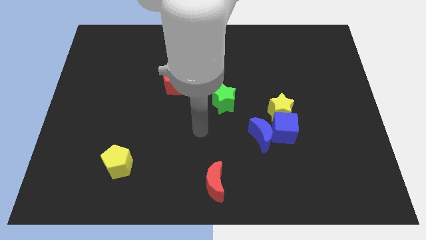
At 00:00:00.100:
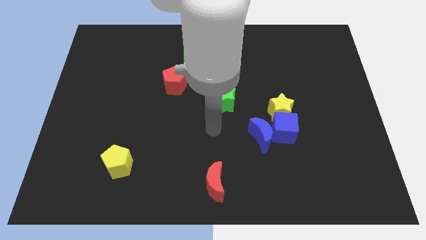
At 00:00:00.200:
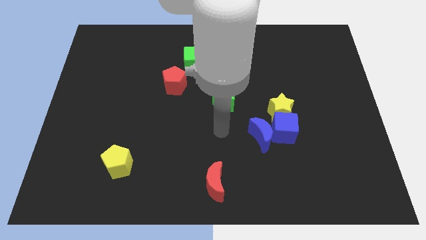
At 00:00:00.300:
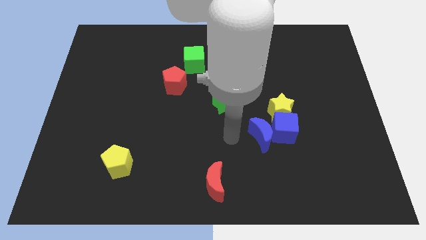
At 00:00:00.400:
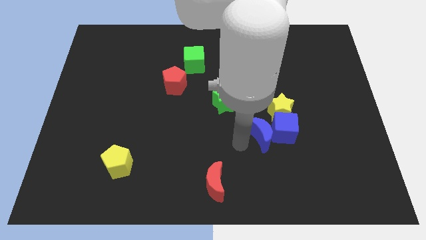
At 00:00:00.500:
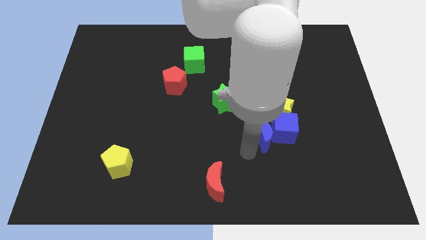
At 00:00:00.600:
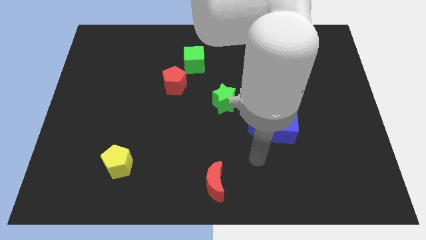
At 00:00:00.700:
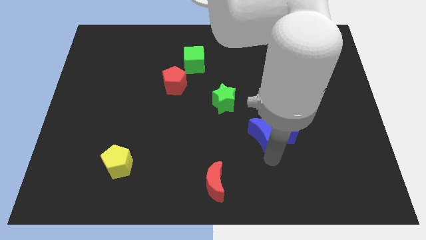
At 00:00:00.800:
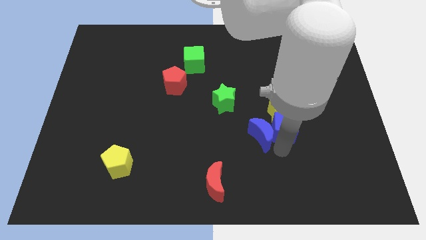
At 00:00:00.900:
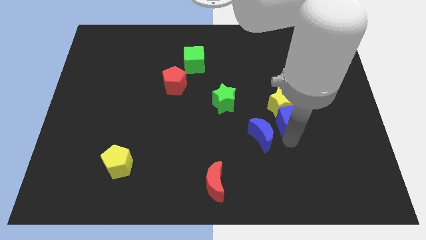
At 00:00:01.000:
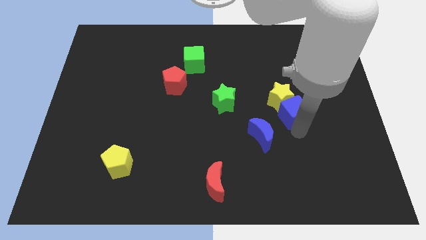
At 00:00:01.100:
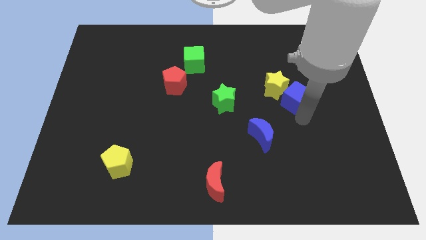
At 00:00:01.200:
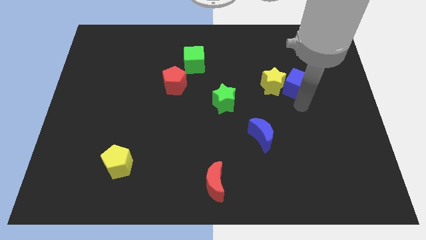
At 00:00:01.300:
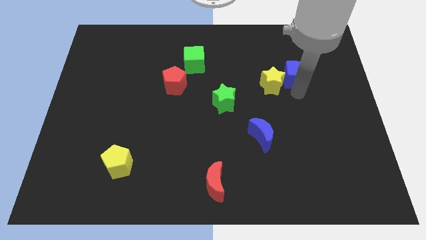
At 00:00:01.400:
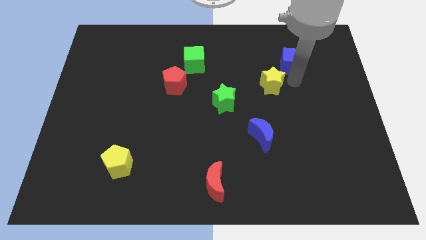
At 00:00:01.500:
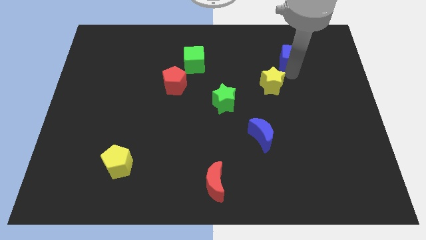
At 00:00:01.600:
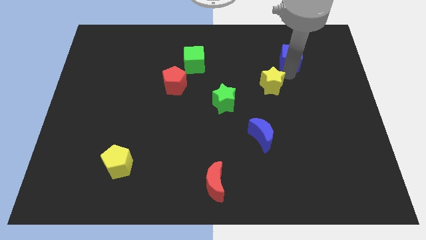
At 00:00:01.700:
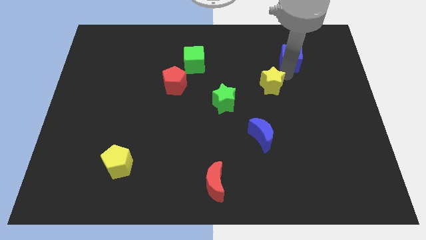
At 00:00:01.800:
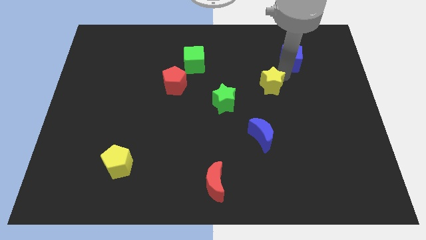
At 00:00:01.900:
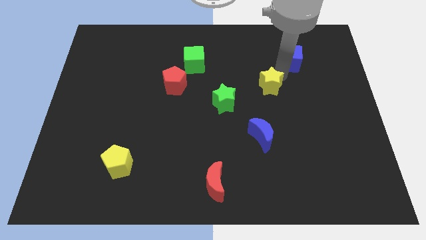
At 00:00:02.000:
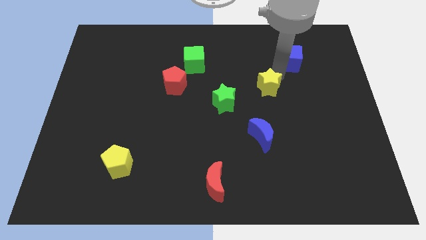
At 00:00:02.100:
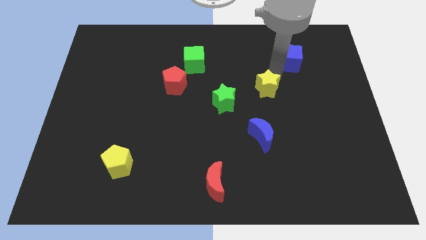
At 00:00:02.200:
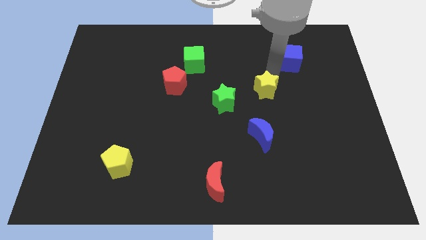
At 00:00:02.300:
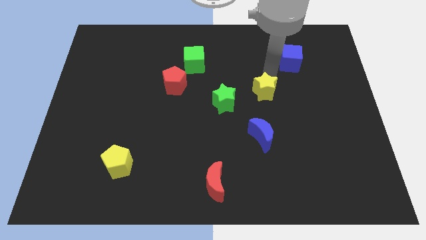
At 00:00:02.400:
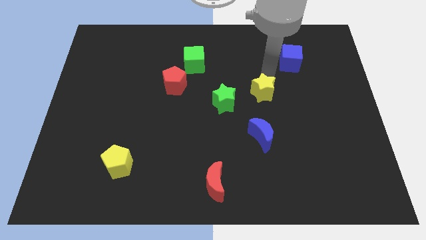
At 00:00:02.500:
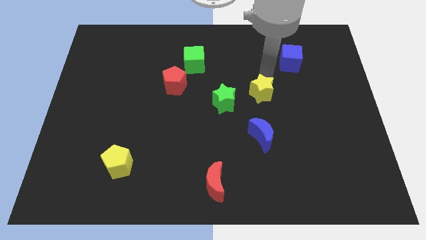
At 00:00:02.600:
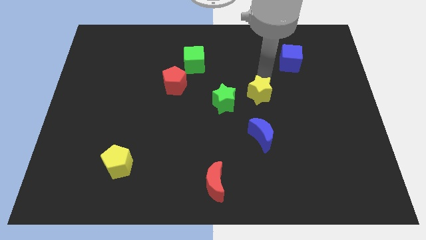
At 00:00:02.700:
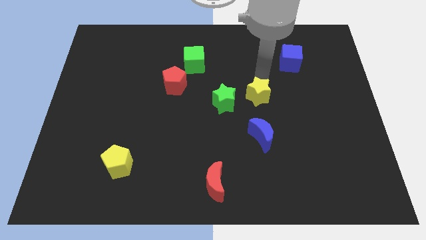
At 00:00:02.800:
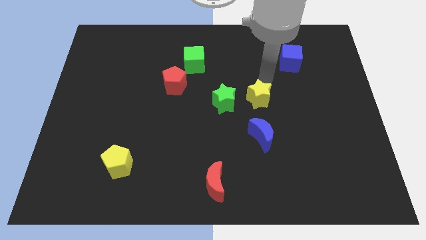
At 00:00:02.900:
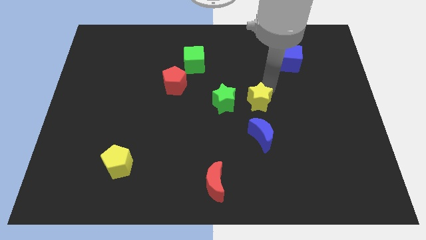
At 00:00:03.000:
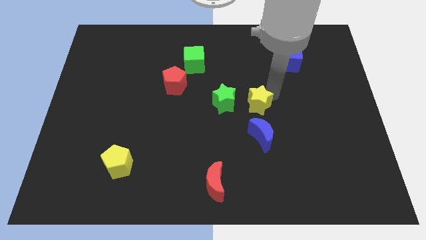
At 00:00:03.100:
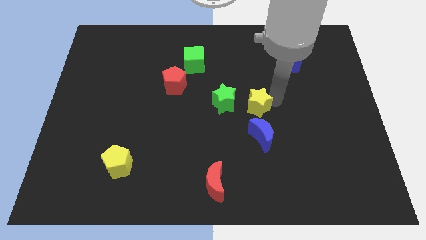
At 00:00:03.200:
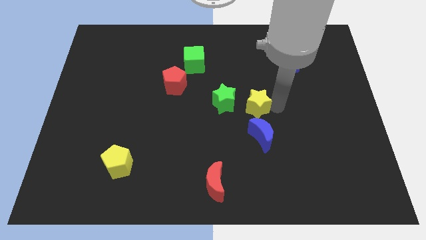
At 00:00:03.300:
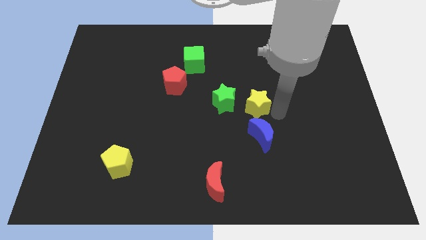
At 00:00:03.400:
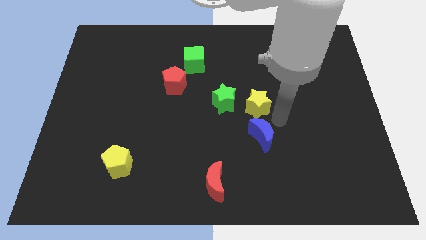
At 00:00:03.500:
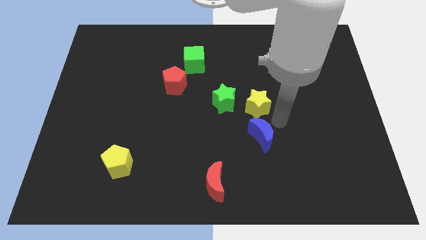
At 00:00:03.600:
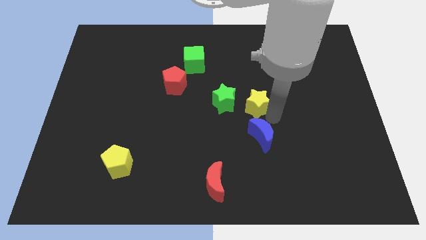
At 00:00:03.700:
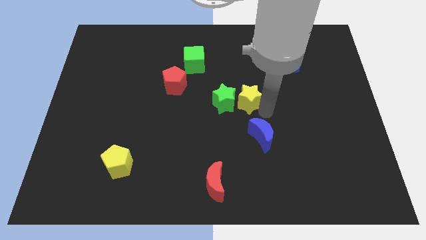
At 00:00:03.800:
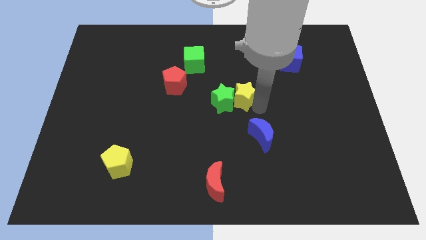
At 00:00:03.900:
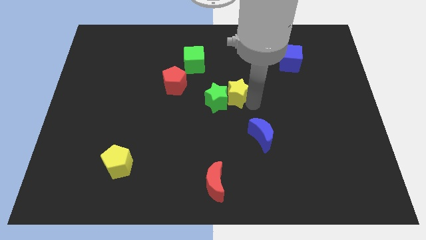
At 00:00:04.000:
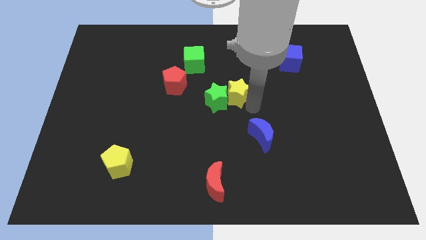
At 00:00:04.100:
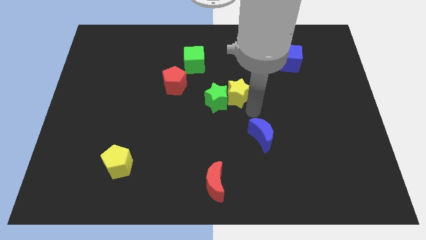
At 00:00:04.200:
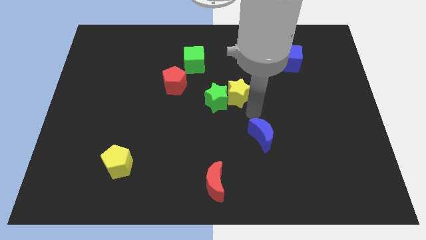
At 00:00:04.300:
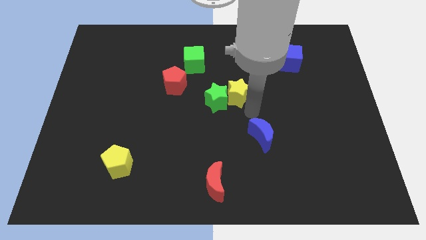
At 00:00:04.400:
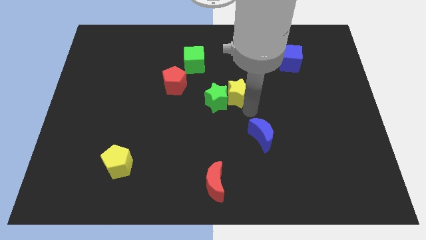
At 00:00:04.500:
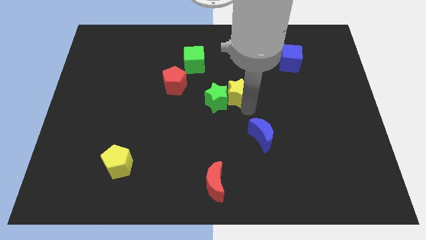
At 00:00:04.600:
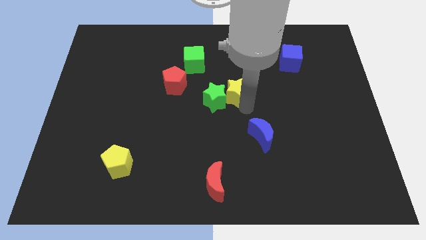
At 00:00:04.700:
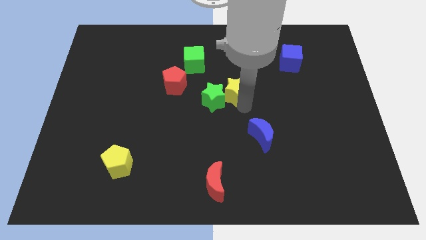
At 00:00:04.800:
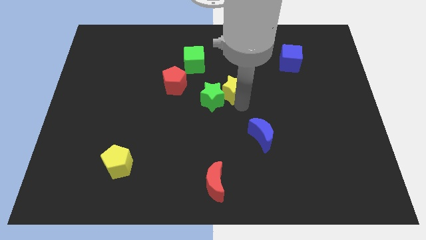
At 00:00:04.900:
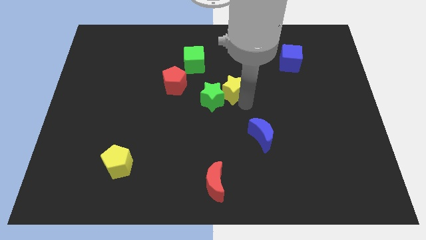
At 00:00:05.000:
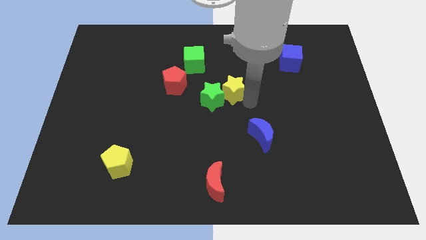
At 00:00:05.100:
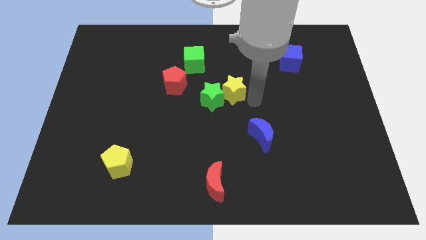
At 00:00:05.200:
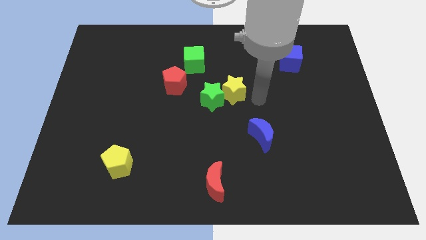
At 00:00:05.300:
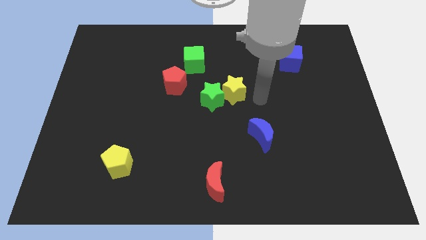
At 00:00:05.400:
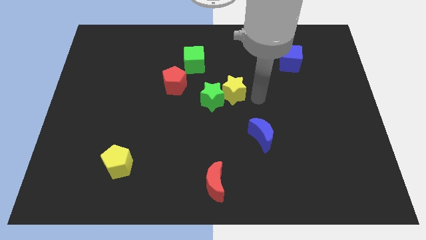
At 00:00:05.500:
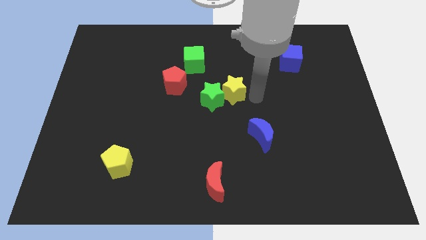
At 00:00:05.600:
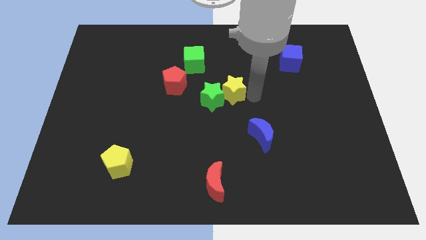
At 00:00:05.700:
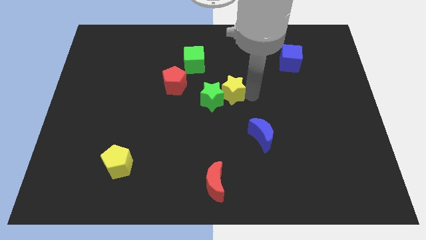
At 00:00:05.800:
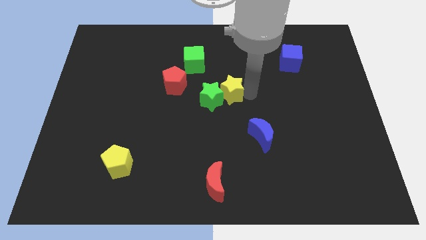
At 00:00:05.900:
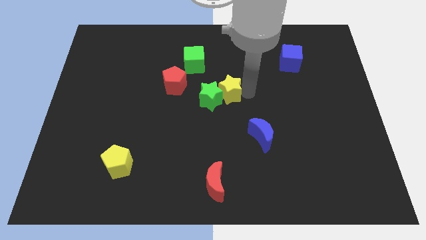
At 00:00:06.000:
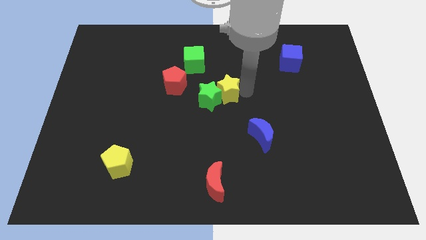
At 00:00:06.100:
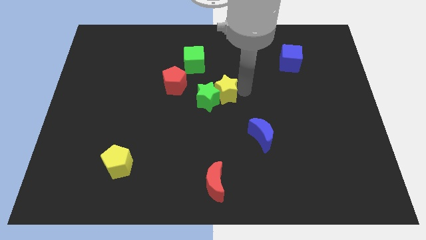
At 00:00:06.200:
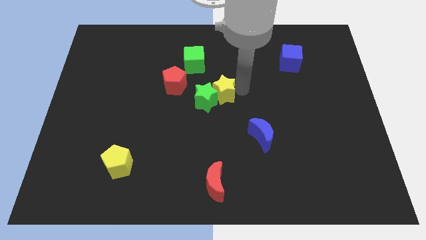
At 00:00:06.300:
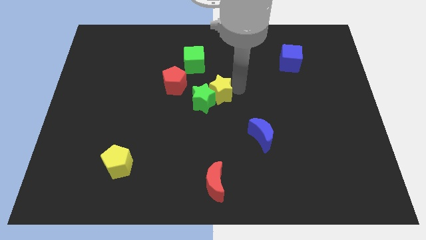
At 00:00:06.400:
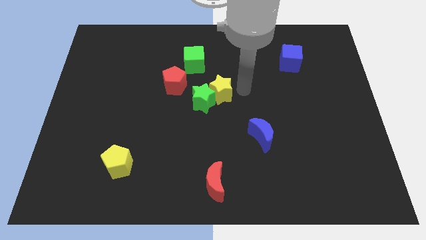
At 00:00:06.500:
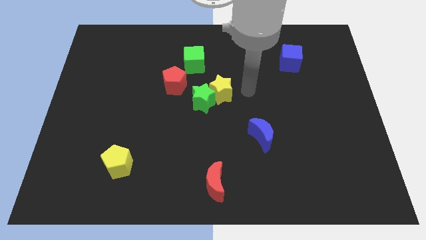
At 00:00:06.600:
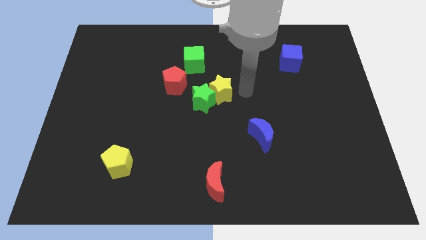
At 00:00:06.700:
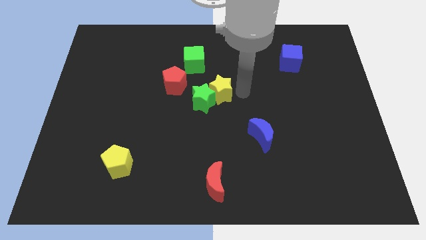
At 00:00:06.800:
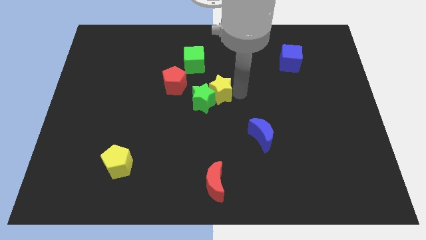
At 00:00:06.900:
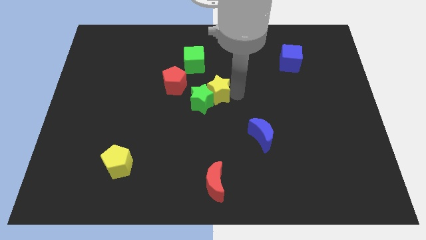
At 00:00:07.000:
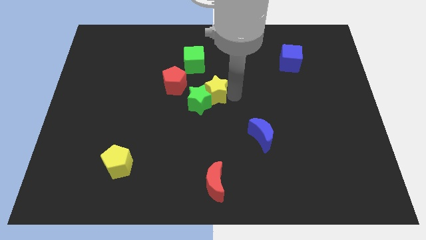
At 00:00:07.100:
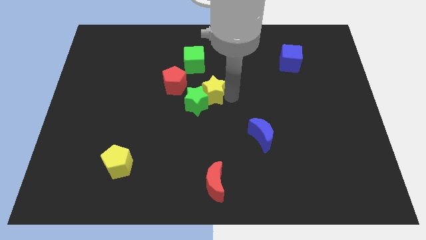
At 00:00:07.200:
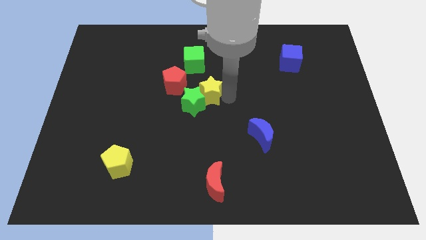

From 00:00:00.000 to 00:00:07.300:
slide the yellow star to the bottom of the green cube
